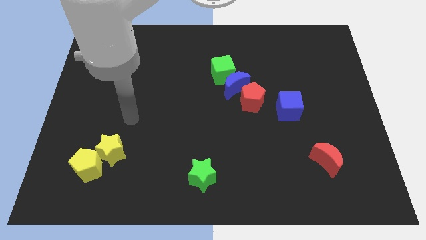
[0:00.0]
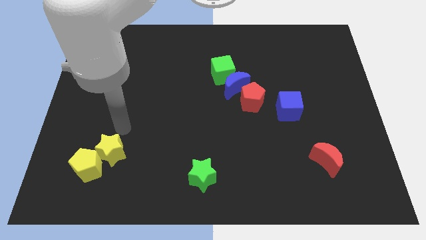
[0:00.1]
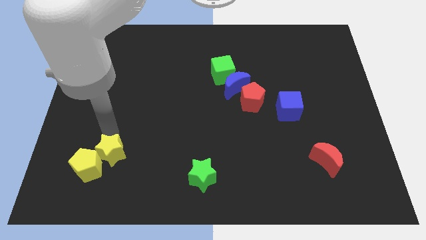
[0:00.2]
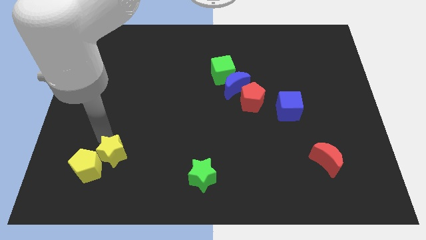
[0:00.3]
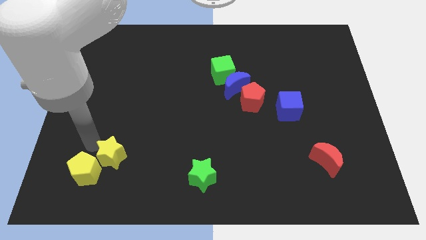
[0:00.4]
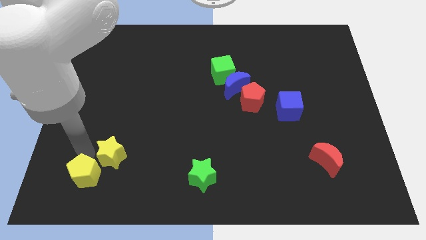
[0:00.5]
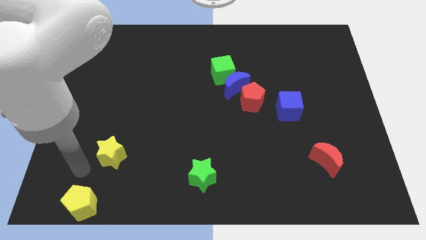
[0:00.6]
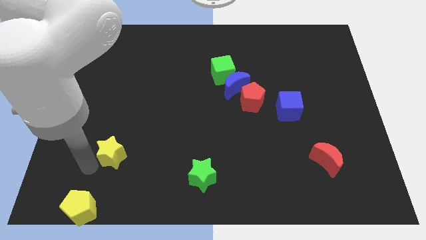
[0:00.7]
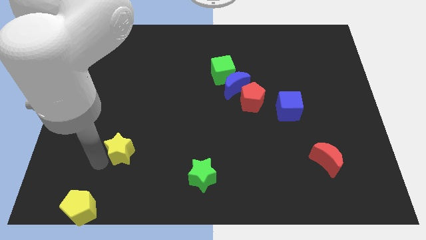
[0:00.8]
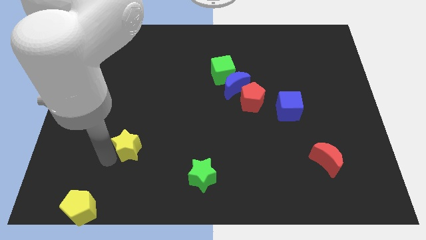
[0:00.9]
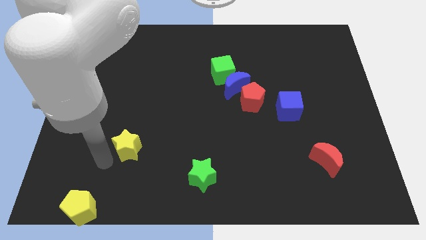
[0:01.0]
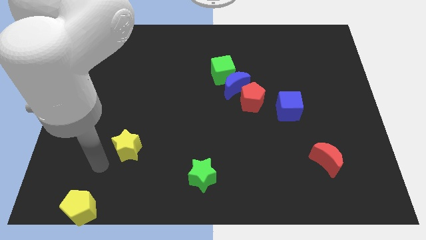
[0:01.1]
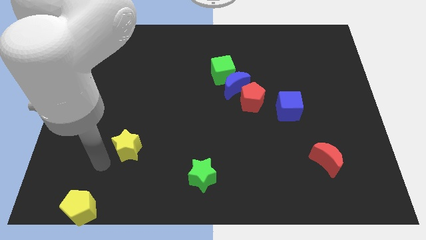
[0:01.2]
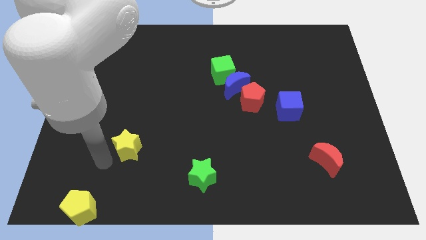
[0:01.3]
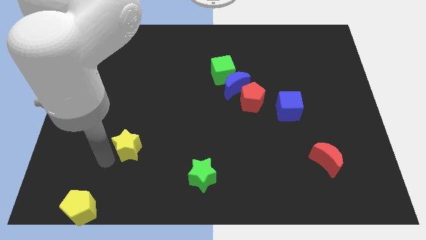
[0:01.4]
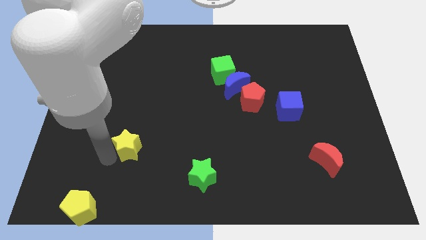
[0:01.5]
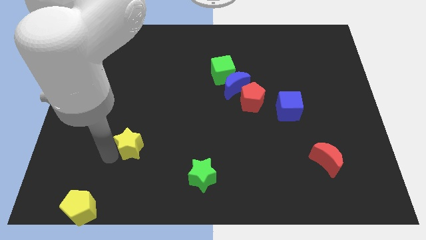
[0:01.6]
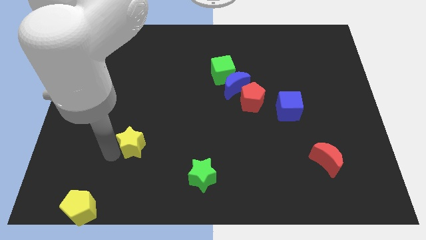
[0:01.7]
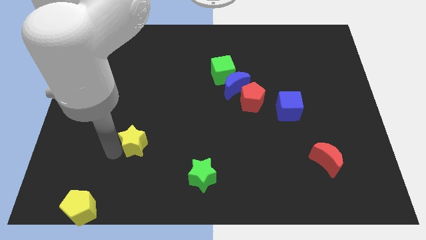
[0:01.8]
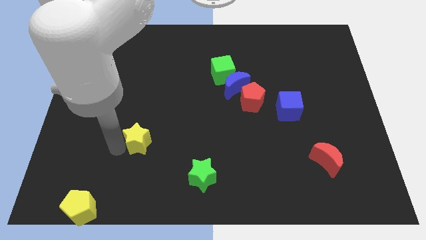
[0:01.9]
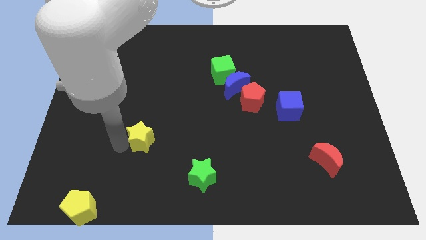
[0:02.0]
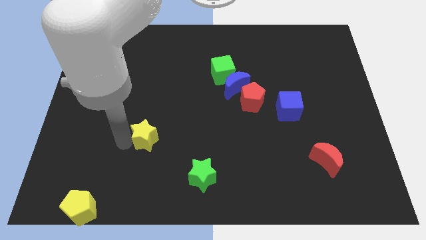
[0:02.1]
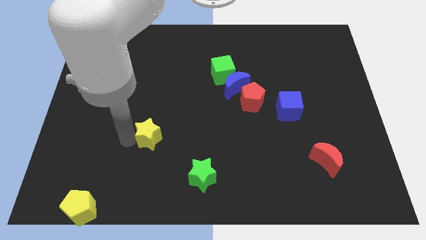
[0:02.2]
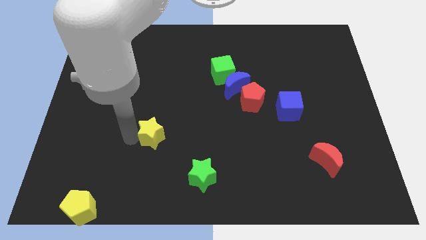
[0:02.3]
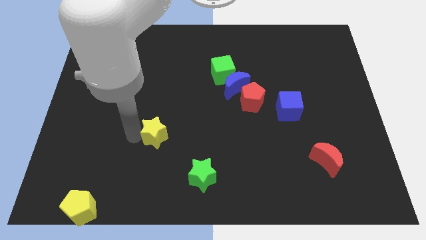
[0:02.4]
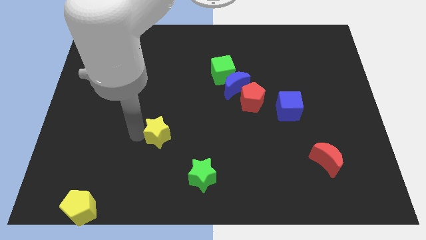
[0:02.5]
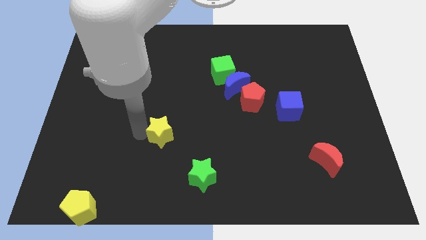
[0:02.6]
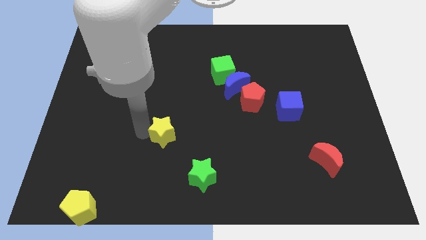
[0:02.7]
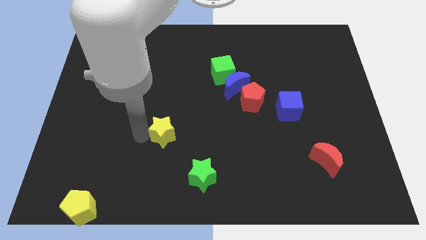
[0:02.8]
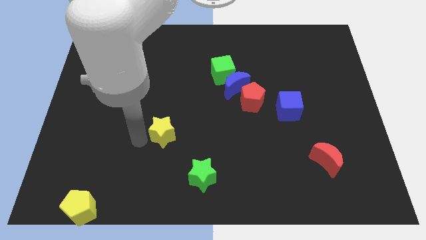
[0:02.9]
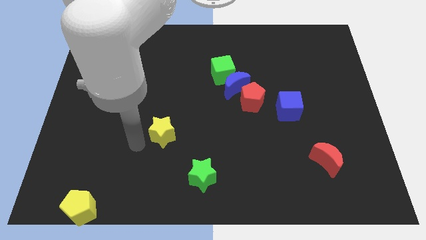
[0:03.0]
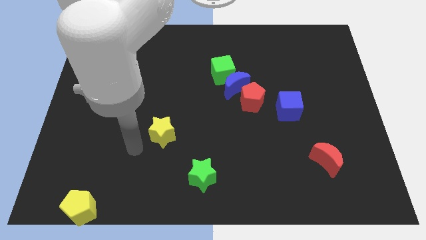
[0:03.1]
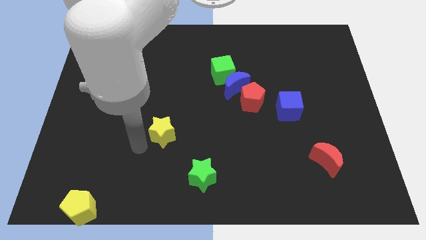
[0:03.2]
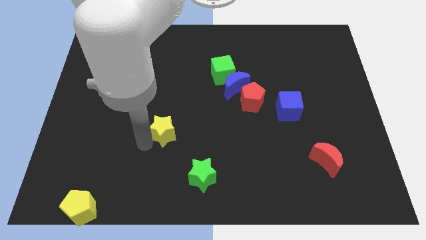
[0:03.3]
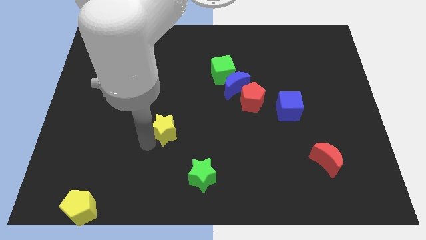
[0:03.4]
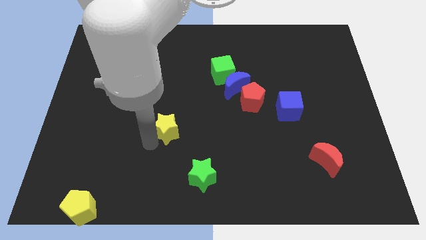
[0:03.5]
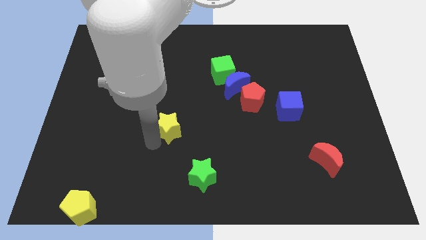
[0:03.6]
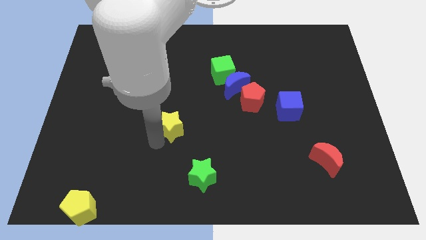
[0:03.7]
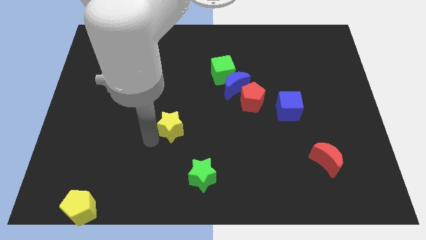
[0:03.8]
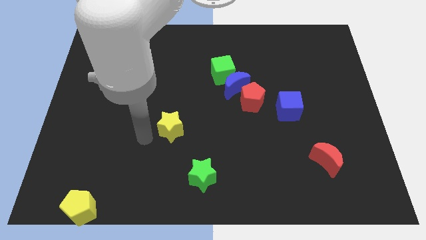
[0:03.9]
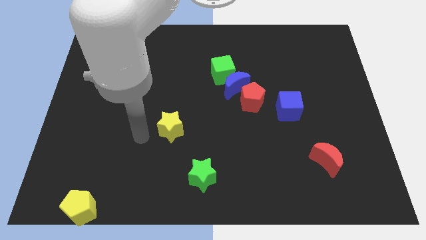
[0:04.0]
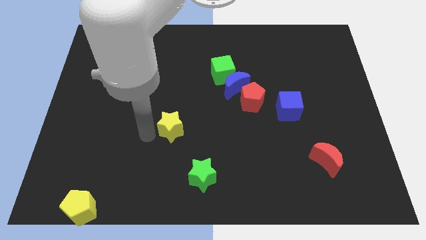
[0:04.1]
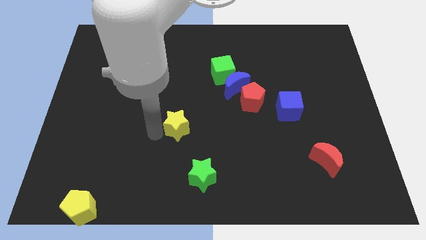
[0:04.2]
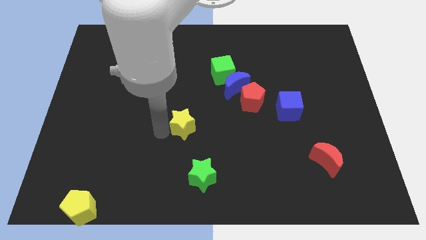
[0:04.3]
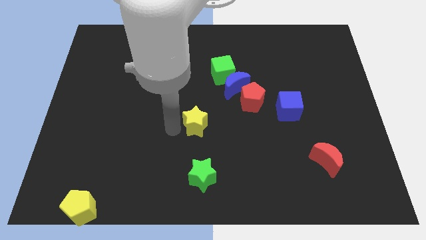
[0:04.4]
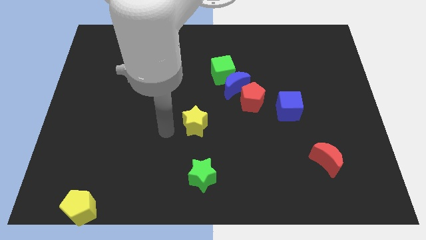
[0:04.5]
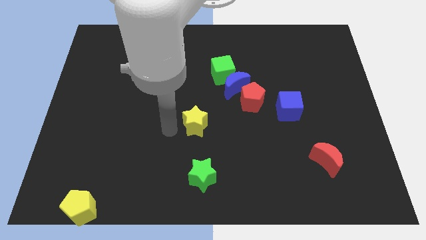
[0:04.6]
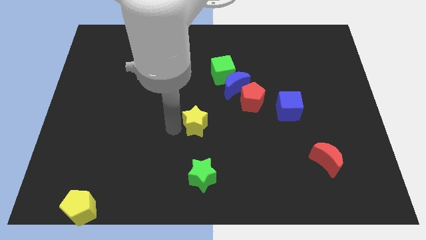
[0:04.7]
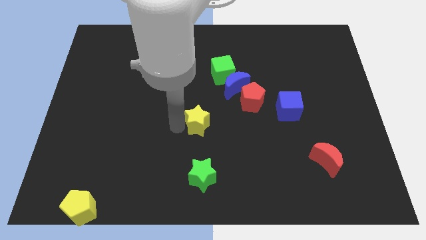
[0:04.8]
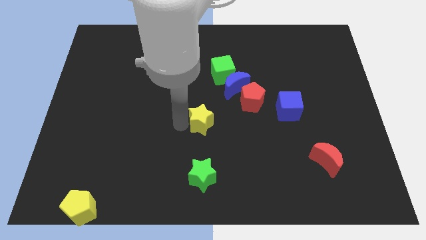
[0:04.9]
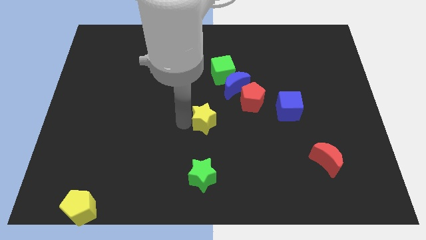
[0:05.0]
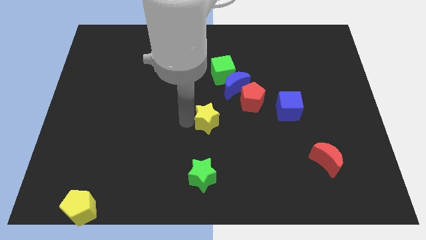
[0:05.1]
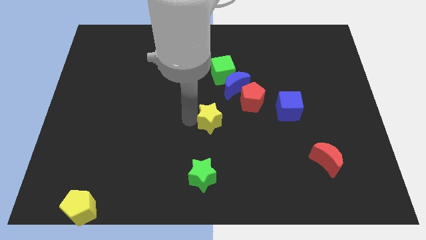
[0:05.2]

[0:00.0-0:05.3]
move the yellow star diagonally down and to the left of the red pentagon

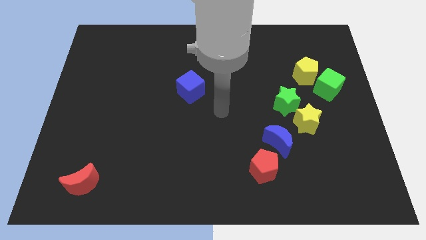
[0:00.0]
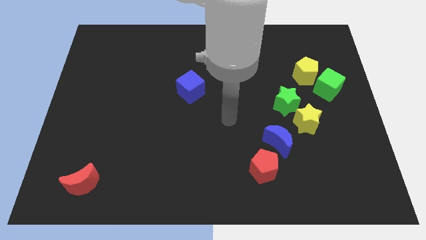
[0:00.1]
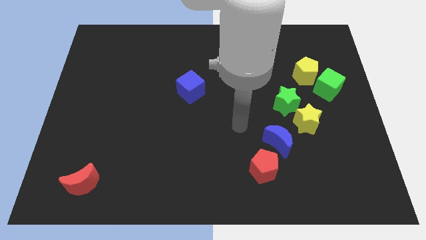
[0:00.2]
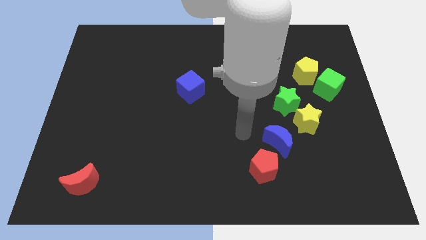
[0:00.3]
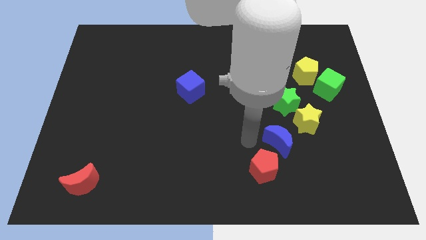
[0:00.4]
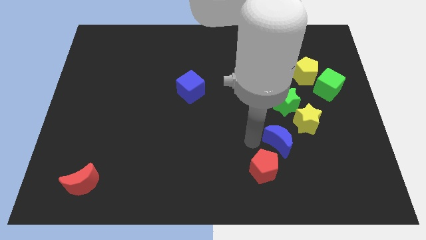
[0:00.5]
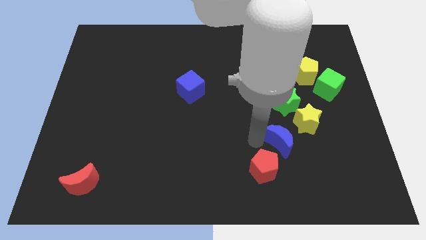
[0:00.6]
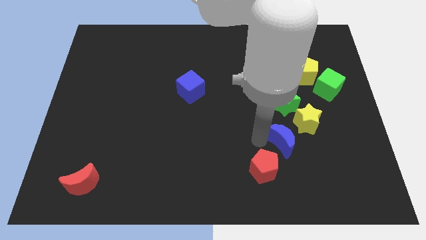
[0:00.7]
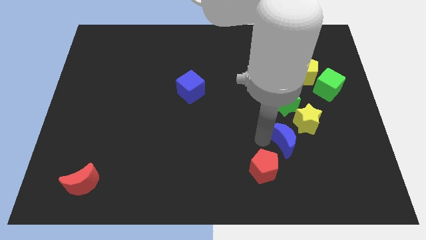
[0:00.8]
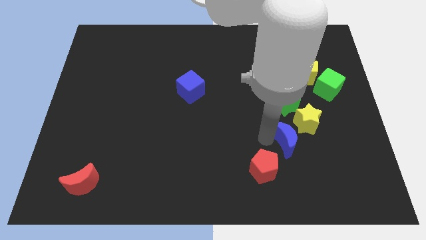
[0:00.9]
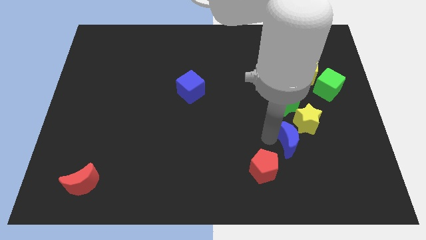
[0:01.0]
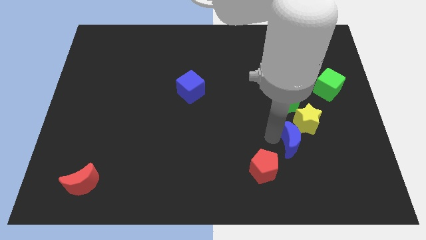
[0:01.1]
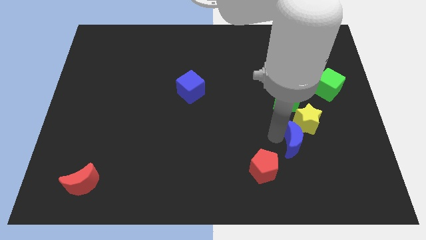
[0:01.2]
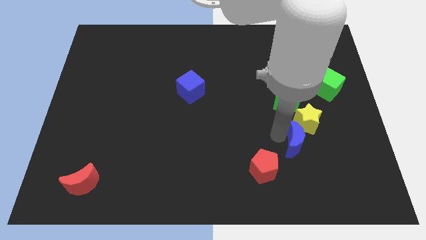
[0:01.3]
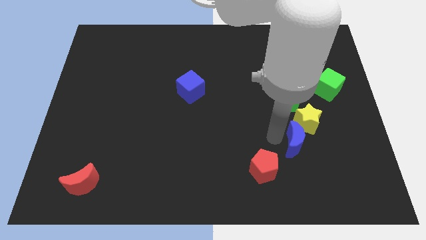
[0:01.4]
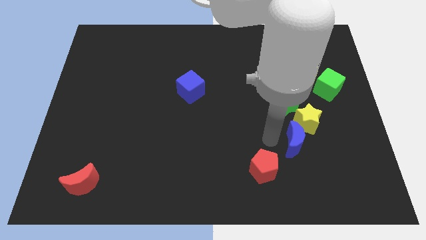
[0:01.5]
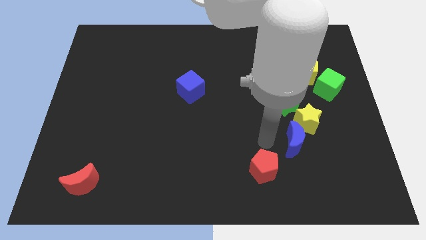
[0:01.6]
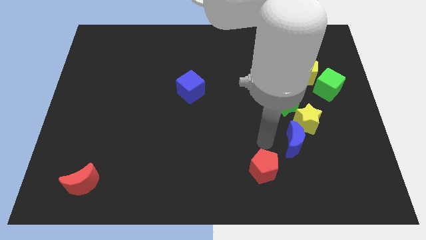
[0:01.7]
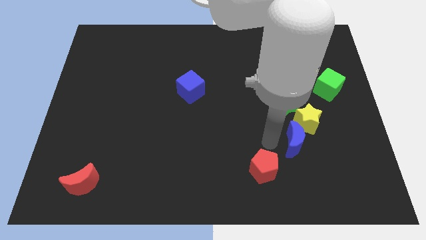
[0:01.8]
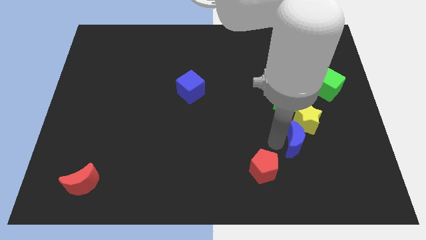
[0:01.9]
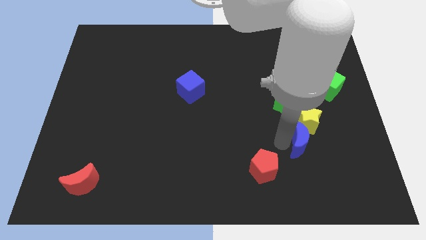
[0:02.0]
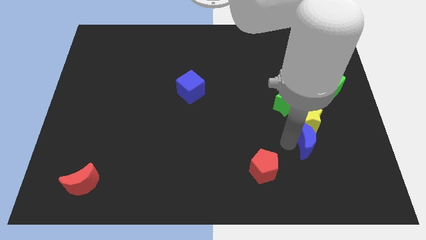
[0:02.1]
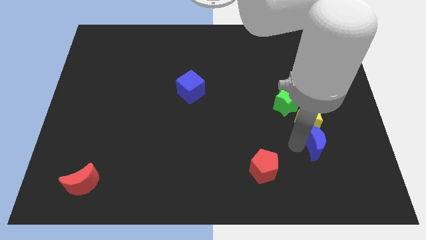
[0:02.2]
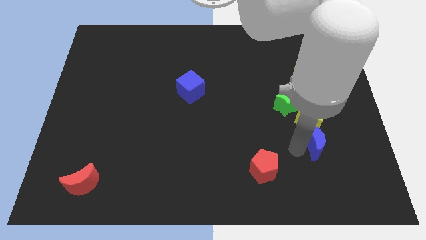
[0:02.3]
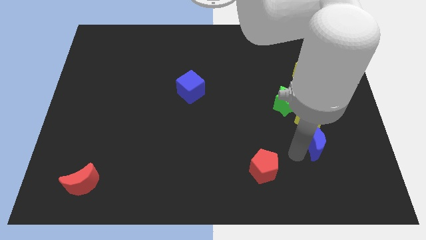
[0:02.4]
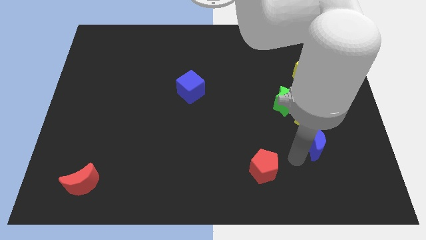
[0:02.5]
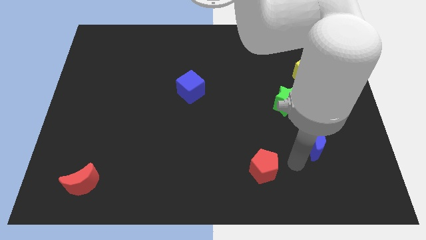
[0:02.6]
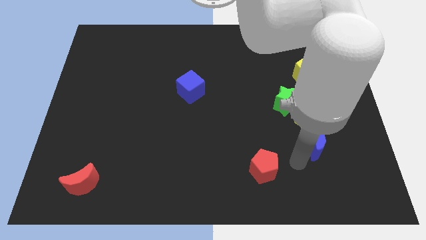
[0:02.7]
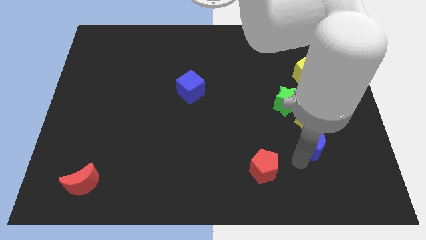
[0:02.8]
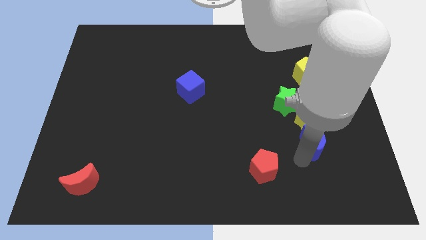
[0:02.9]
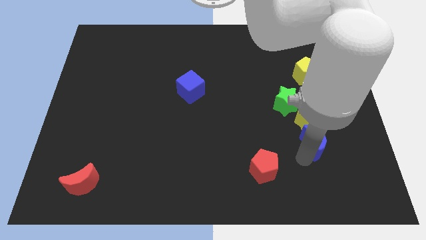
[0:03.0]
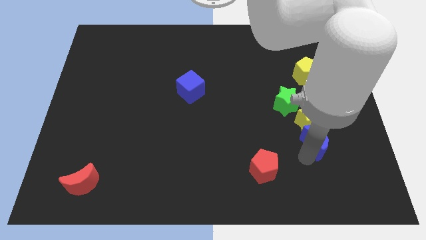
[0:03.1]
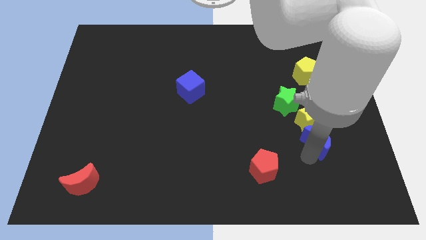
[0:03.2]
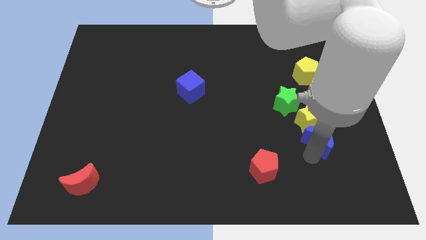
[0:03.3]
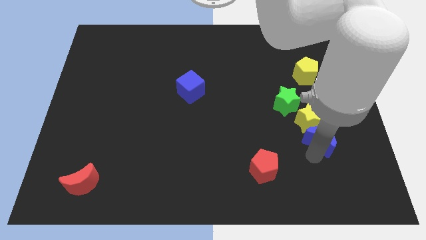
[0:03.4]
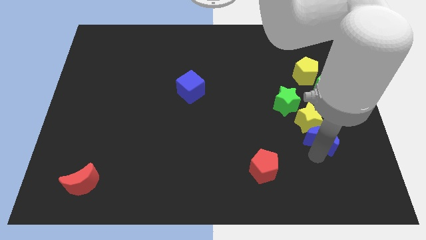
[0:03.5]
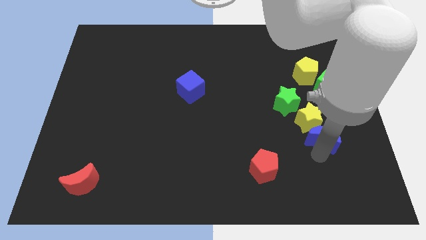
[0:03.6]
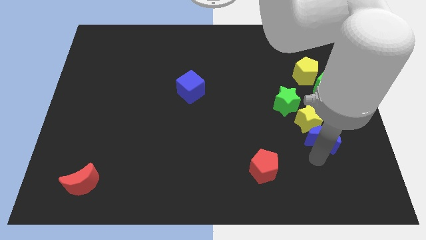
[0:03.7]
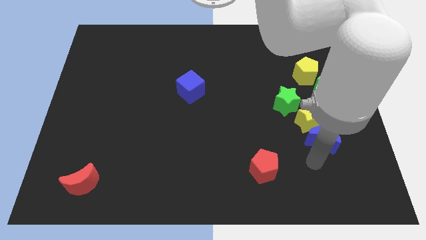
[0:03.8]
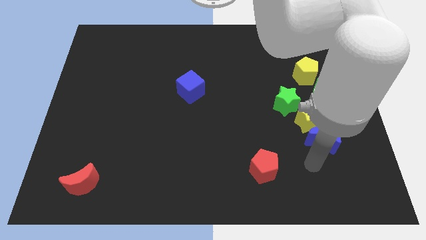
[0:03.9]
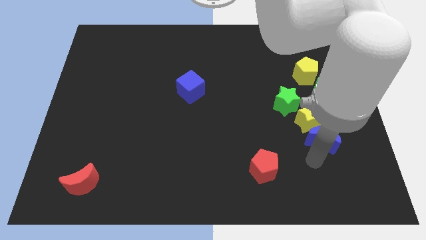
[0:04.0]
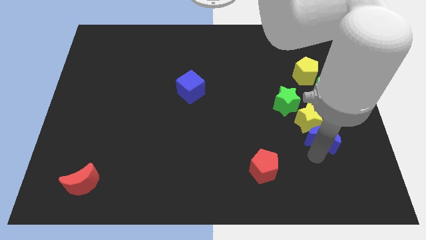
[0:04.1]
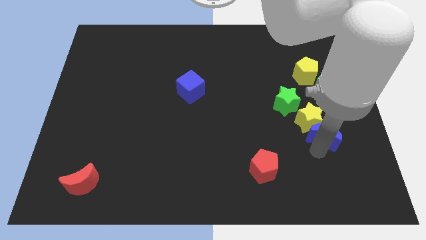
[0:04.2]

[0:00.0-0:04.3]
put the blue moon to the bottom of the green cube
